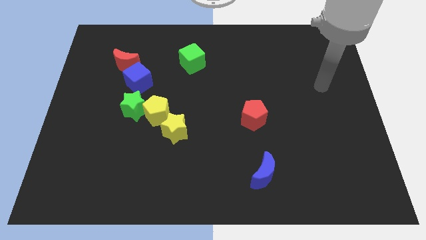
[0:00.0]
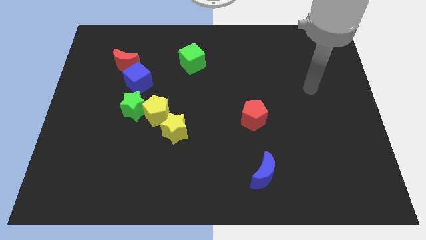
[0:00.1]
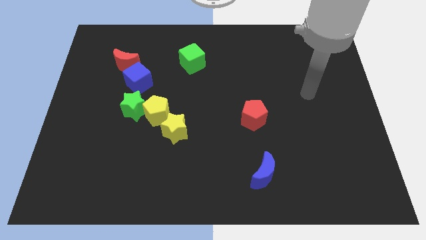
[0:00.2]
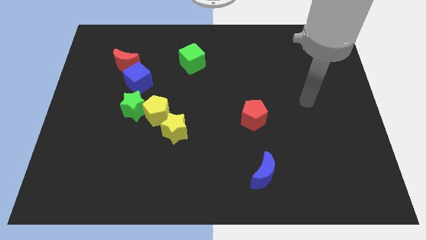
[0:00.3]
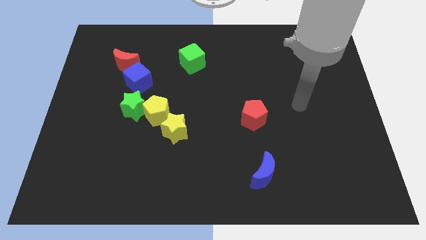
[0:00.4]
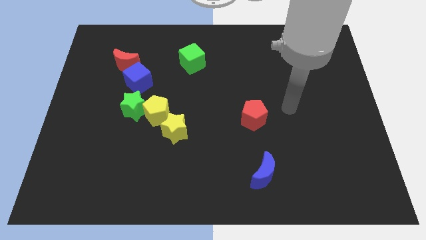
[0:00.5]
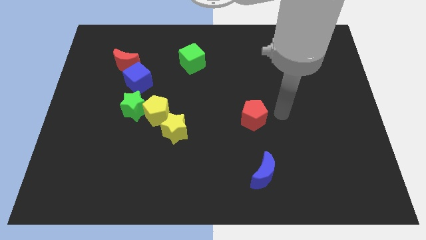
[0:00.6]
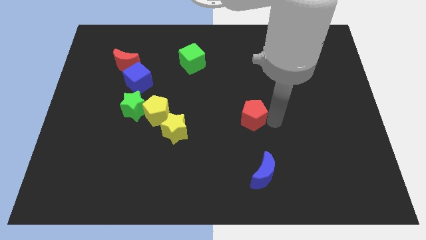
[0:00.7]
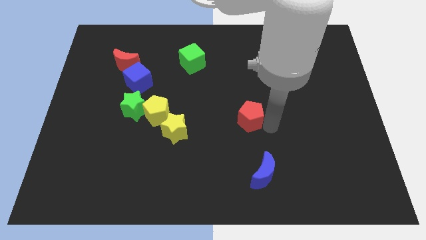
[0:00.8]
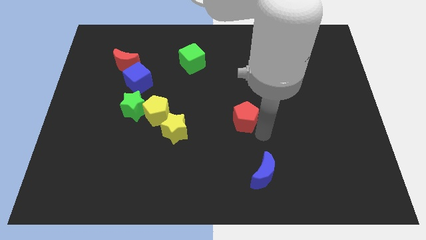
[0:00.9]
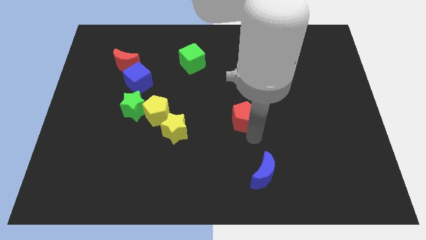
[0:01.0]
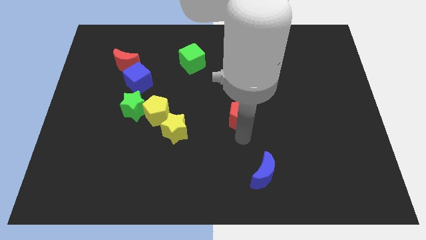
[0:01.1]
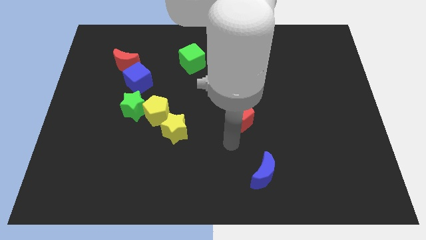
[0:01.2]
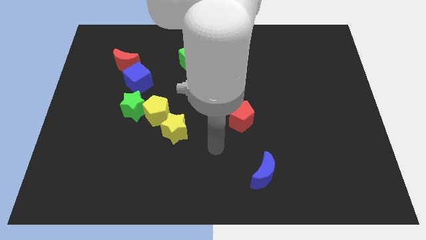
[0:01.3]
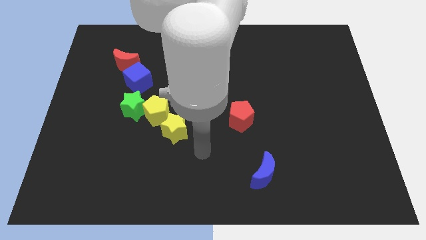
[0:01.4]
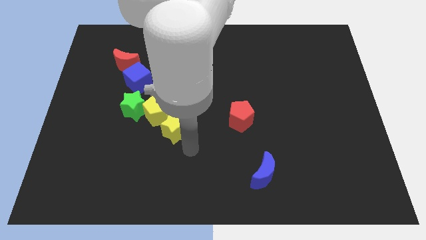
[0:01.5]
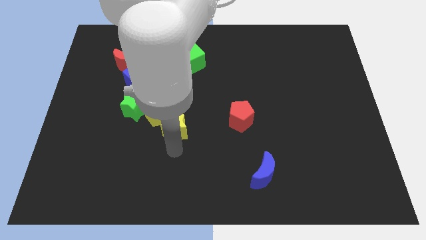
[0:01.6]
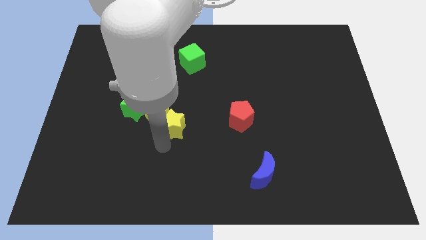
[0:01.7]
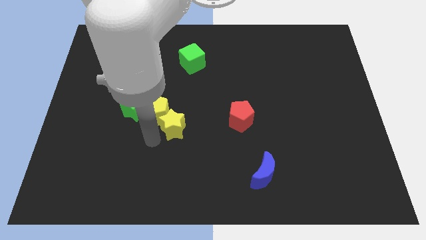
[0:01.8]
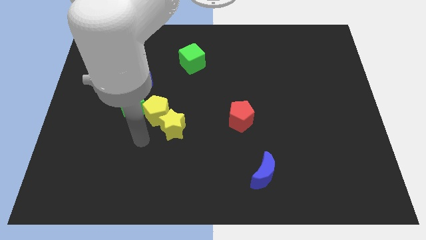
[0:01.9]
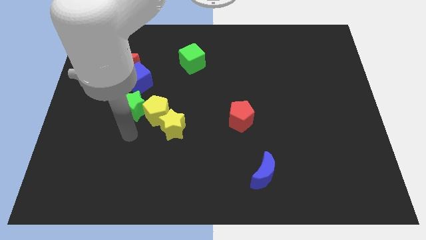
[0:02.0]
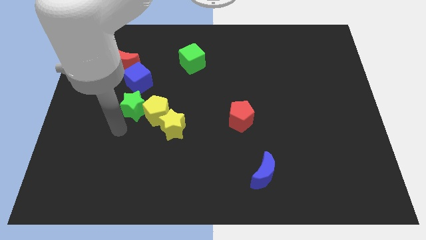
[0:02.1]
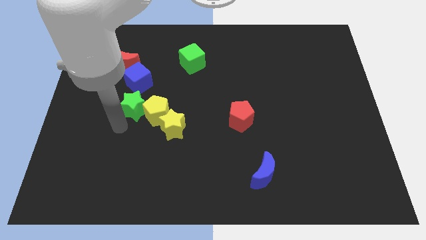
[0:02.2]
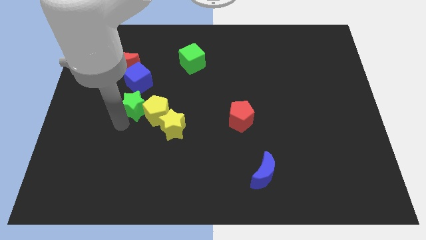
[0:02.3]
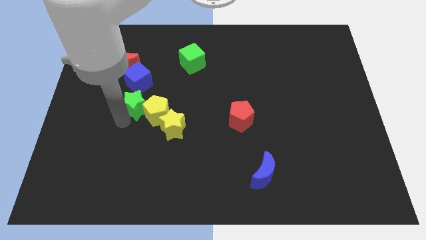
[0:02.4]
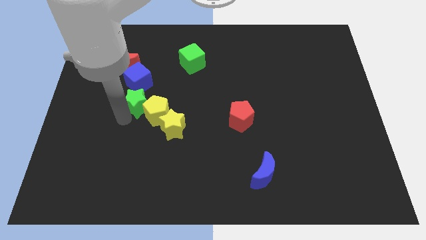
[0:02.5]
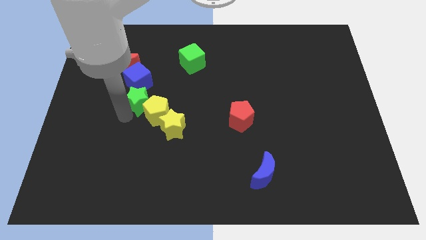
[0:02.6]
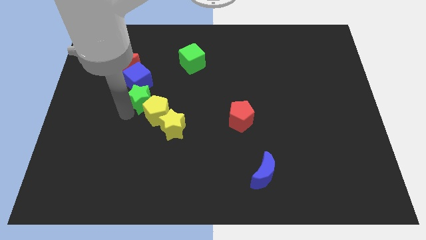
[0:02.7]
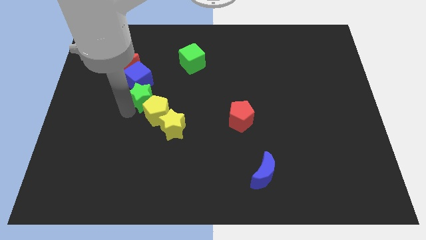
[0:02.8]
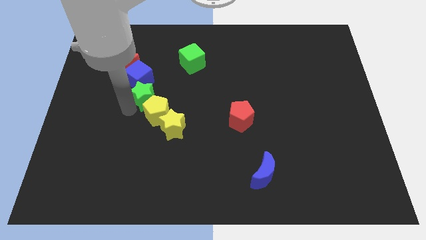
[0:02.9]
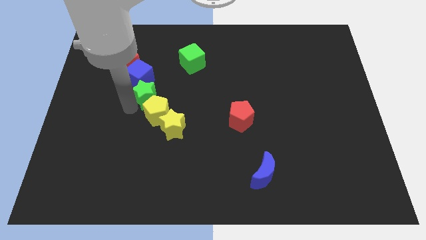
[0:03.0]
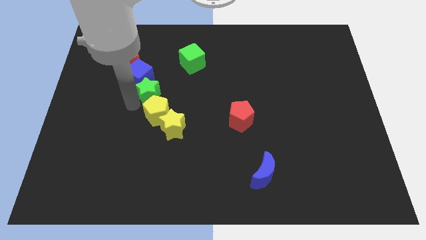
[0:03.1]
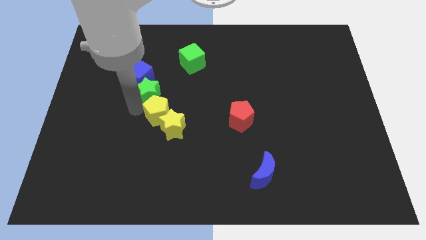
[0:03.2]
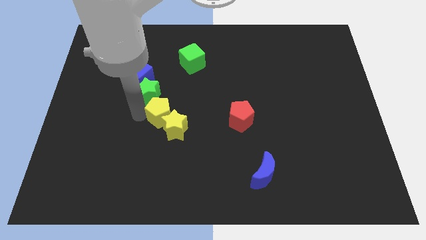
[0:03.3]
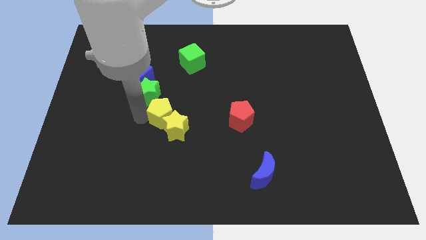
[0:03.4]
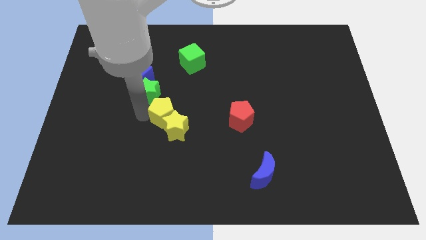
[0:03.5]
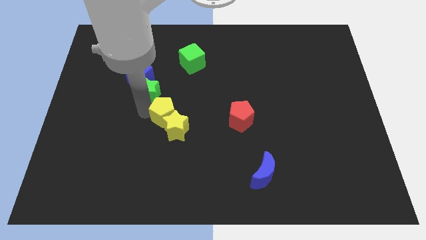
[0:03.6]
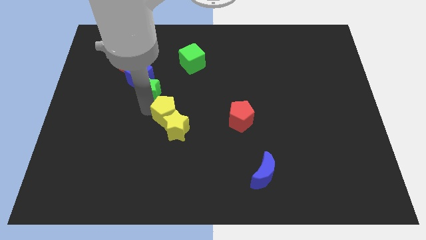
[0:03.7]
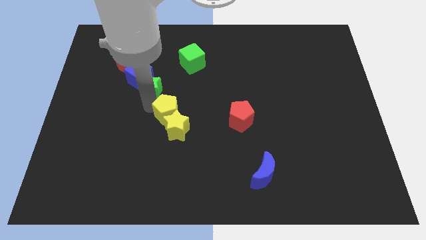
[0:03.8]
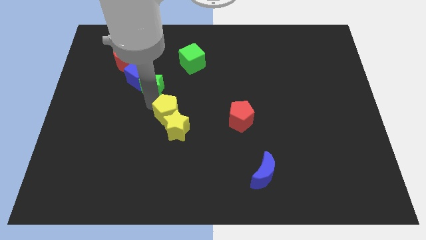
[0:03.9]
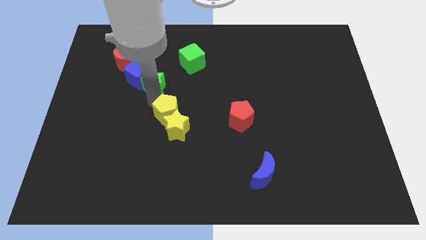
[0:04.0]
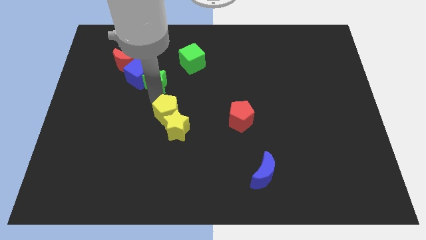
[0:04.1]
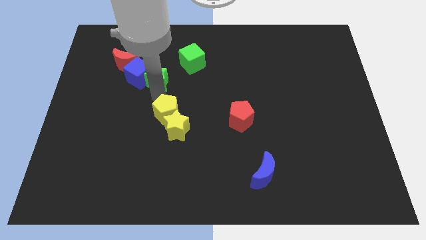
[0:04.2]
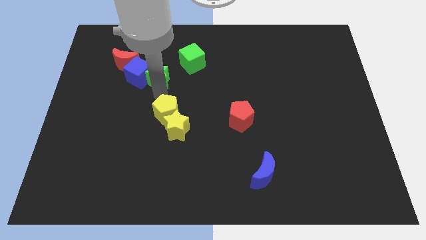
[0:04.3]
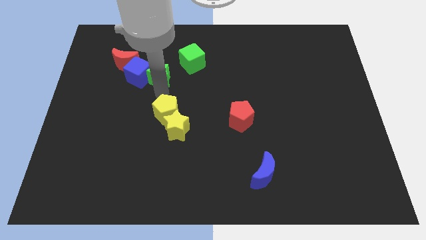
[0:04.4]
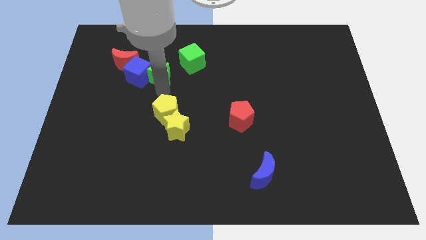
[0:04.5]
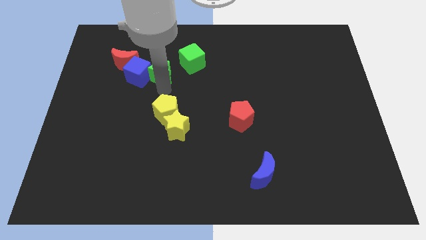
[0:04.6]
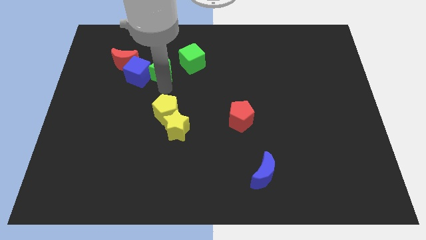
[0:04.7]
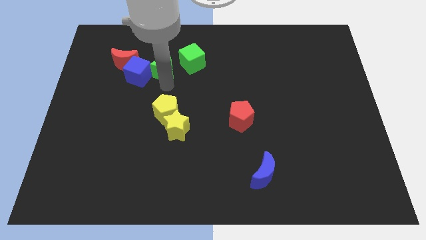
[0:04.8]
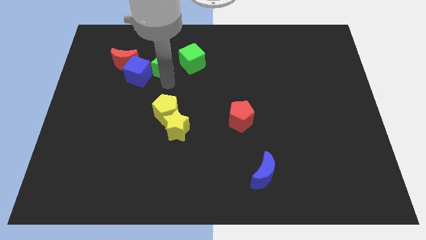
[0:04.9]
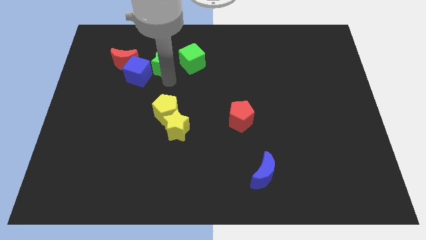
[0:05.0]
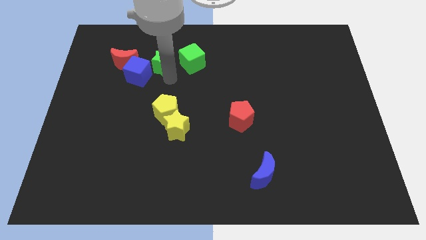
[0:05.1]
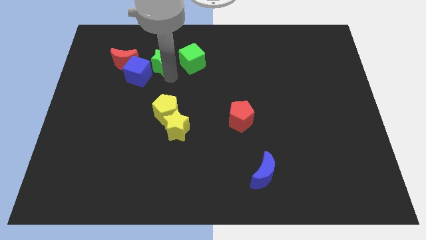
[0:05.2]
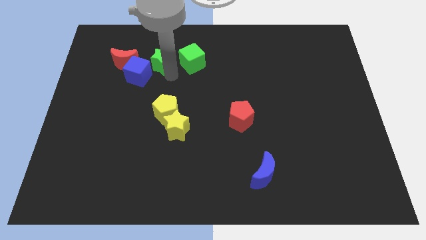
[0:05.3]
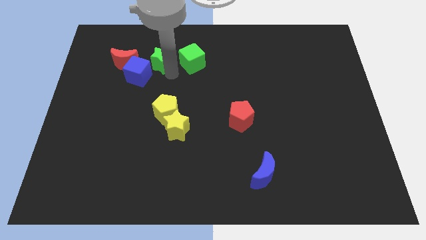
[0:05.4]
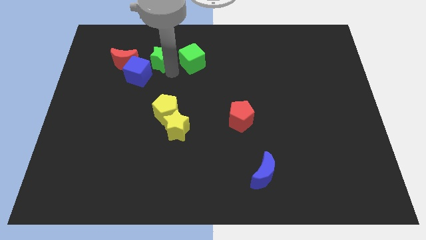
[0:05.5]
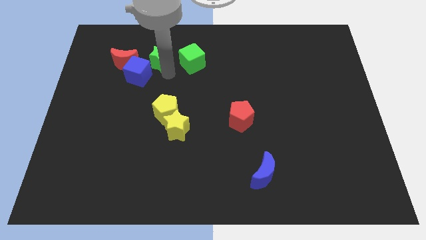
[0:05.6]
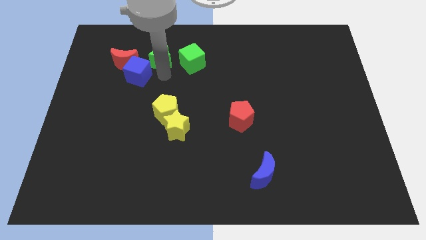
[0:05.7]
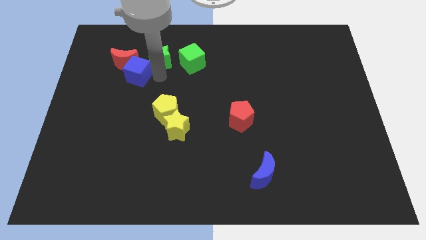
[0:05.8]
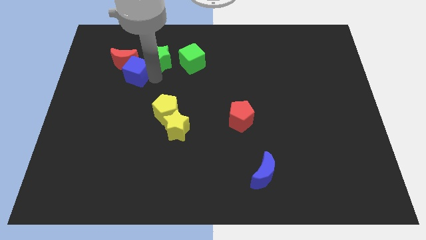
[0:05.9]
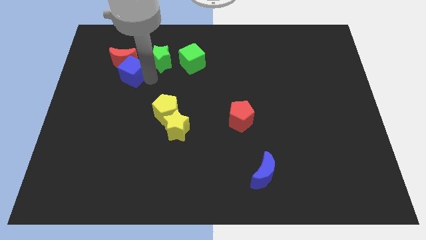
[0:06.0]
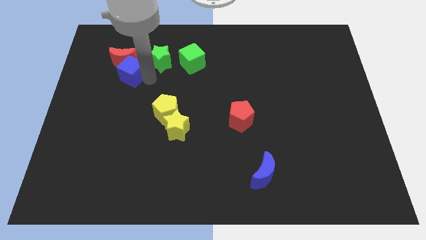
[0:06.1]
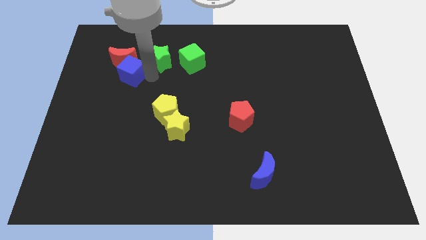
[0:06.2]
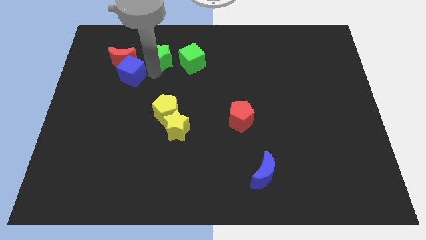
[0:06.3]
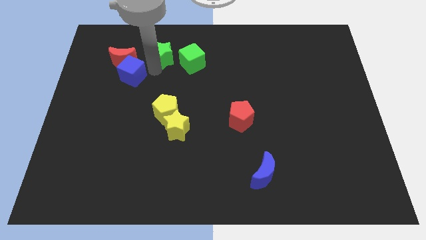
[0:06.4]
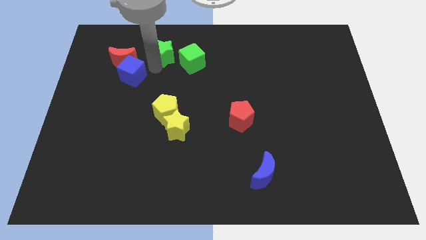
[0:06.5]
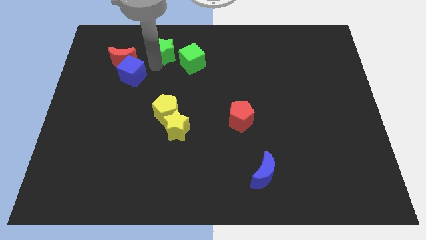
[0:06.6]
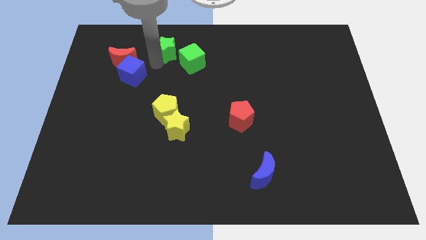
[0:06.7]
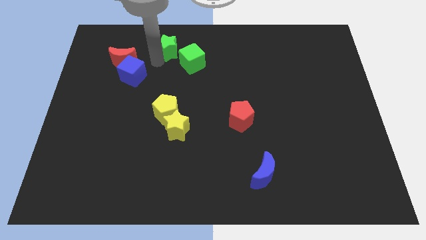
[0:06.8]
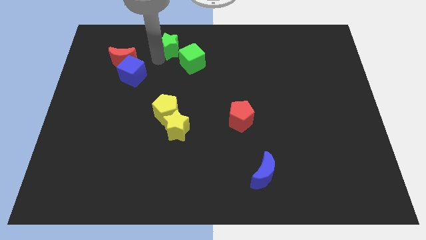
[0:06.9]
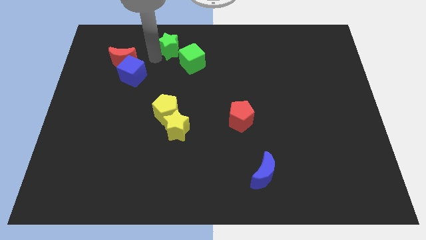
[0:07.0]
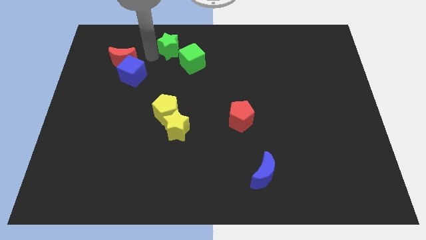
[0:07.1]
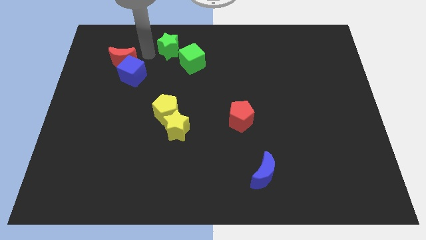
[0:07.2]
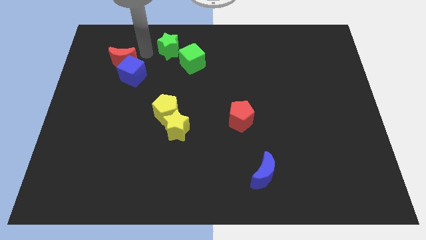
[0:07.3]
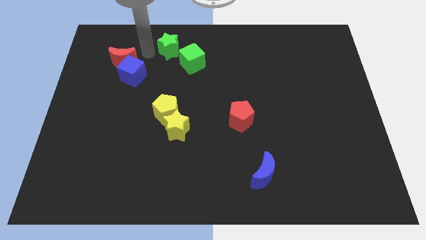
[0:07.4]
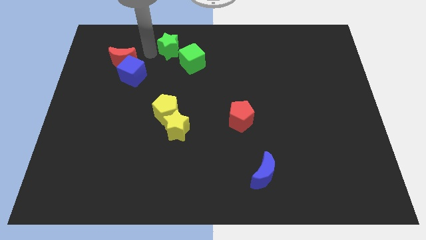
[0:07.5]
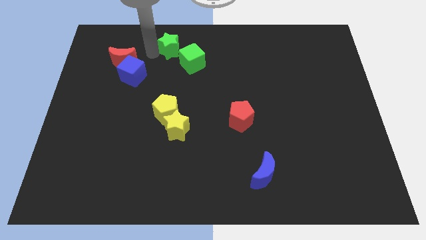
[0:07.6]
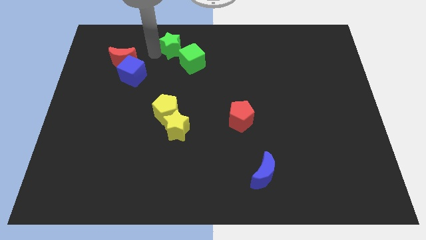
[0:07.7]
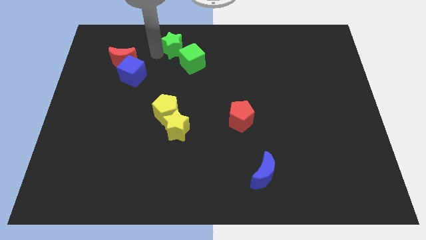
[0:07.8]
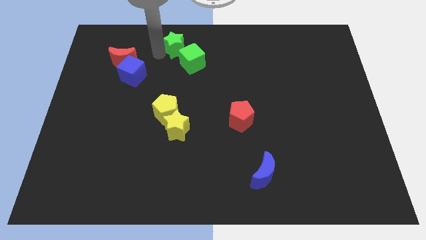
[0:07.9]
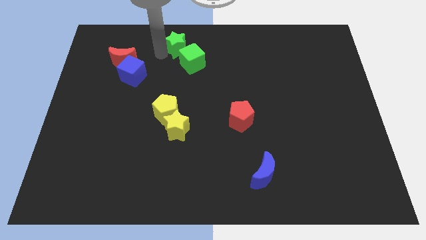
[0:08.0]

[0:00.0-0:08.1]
put the green star to the towards your base
